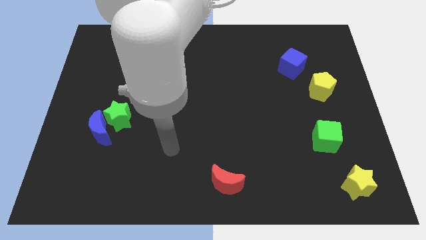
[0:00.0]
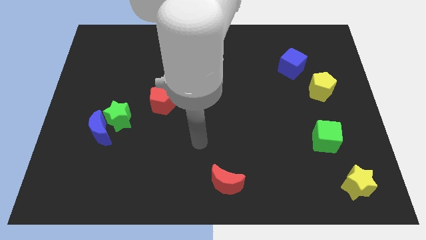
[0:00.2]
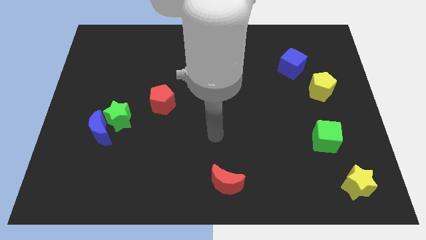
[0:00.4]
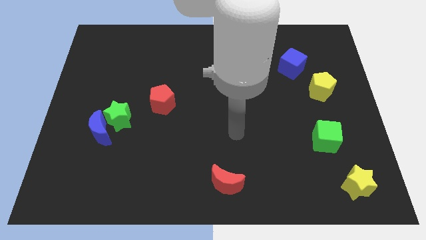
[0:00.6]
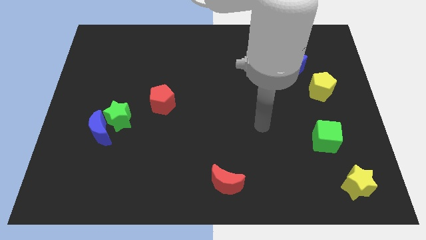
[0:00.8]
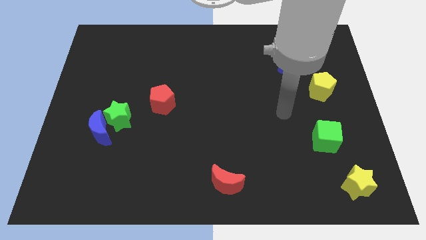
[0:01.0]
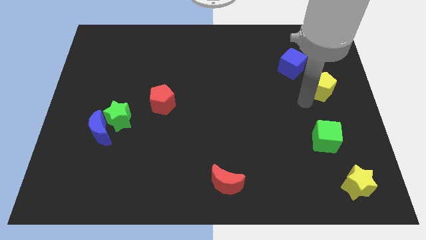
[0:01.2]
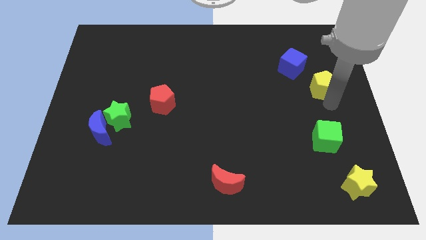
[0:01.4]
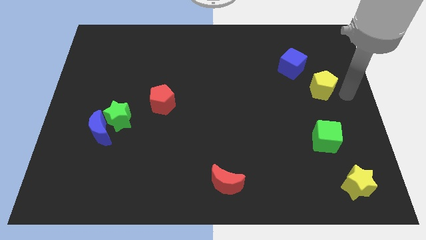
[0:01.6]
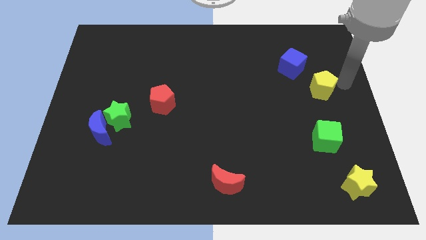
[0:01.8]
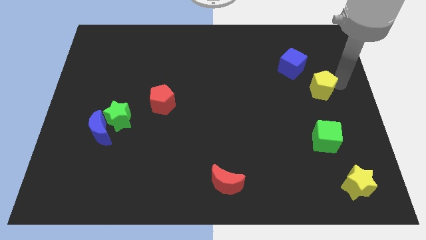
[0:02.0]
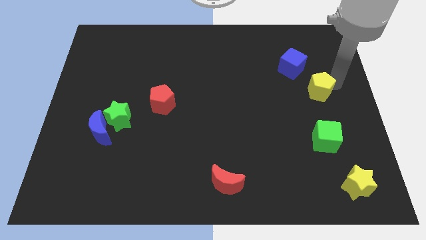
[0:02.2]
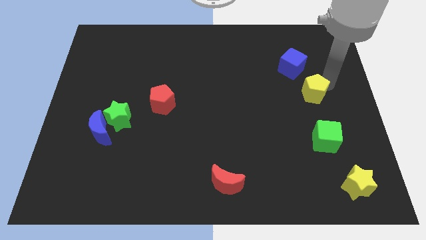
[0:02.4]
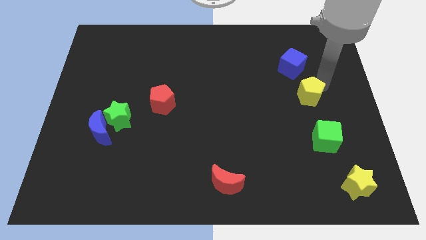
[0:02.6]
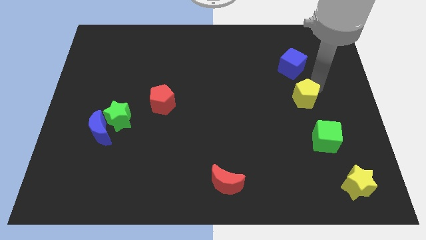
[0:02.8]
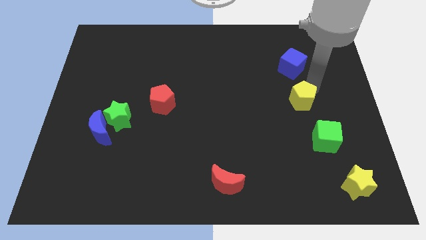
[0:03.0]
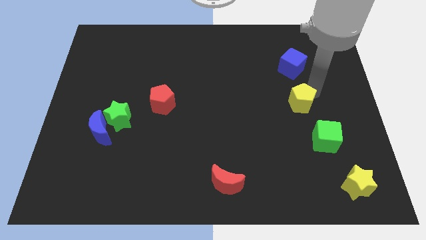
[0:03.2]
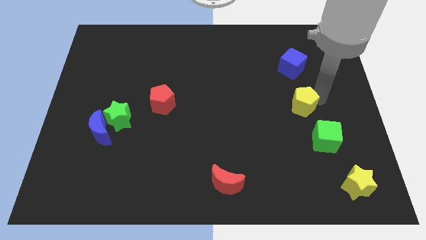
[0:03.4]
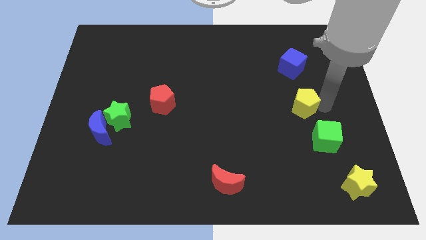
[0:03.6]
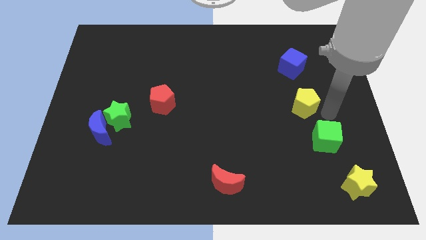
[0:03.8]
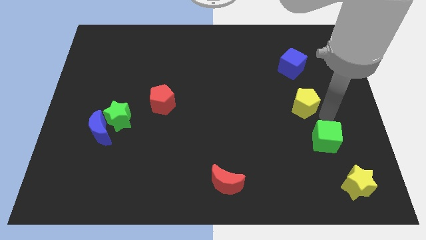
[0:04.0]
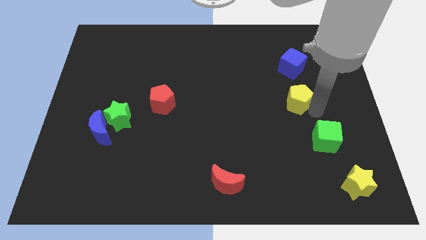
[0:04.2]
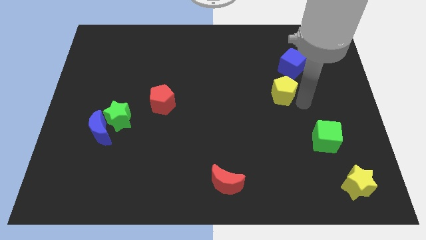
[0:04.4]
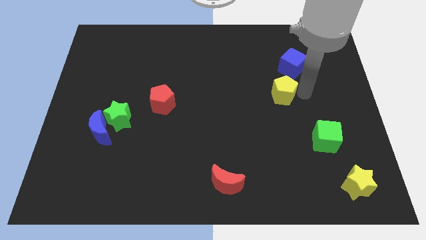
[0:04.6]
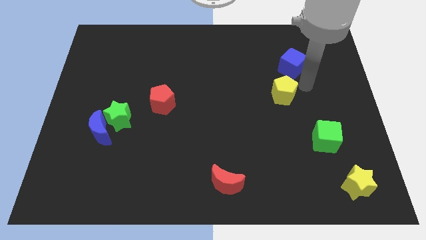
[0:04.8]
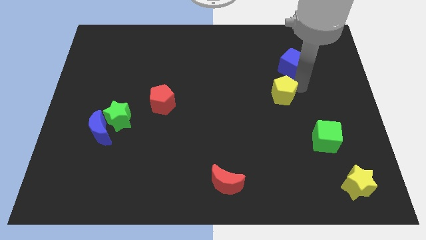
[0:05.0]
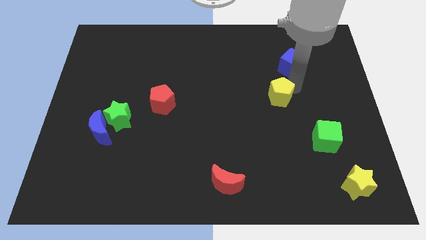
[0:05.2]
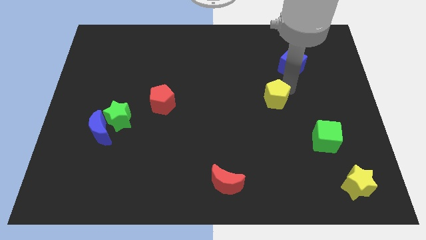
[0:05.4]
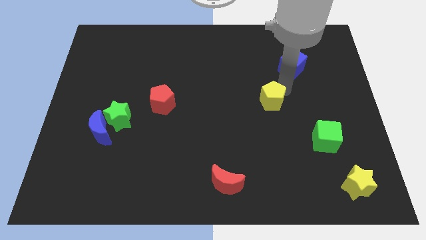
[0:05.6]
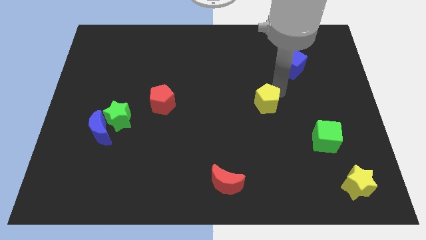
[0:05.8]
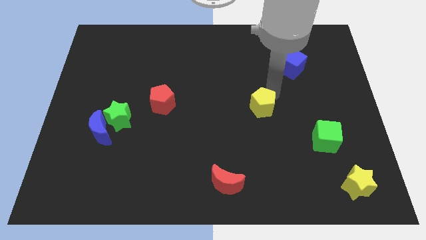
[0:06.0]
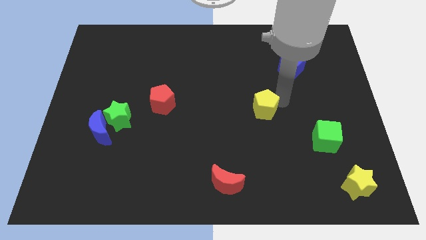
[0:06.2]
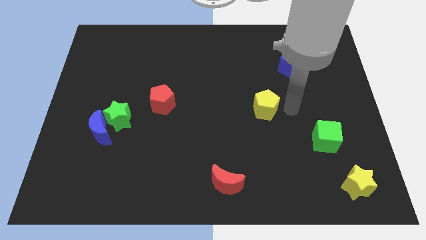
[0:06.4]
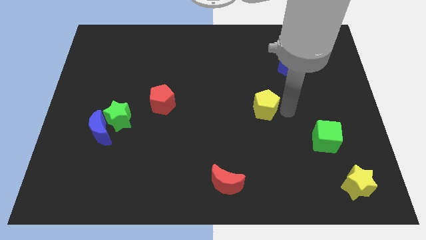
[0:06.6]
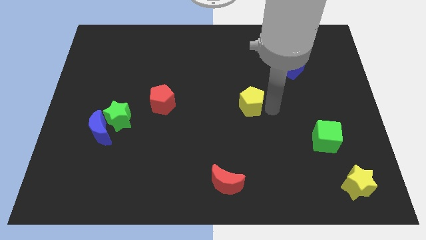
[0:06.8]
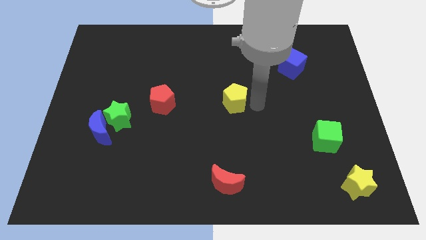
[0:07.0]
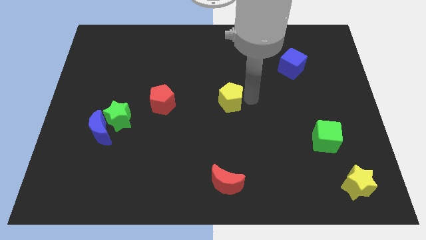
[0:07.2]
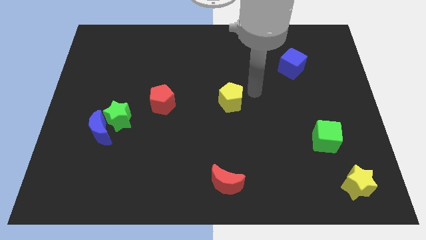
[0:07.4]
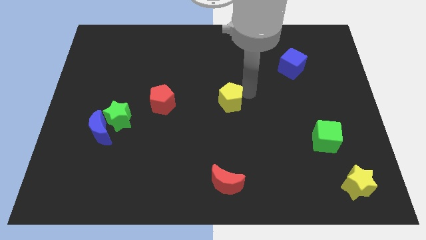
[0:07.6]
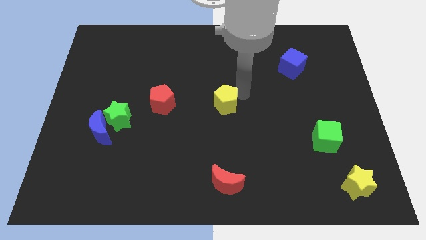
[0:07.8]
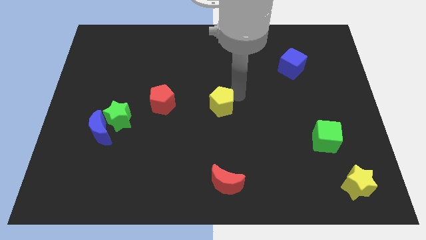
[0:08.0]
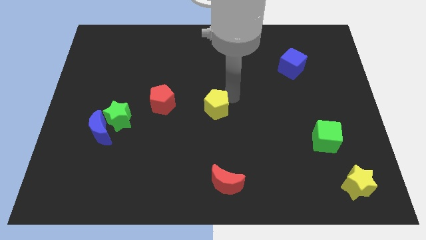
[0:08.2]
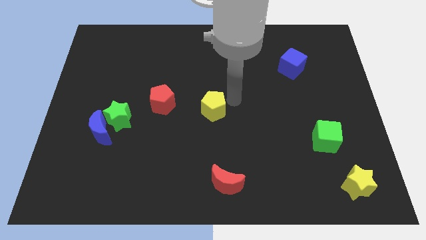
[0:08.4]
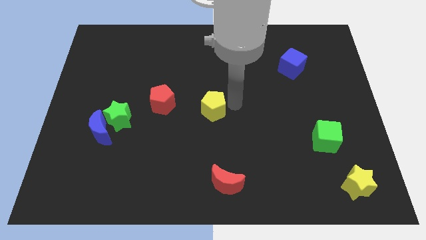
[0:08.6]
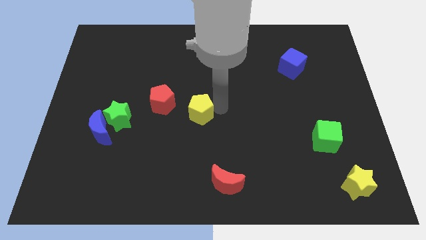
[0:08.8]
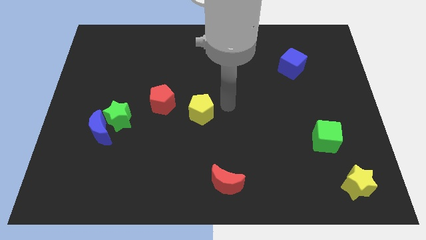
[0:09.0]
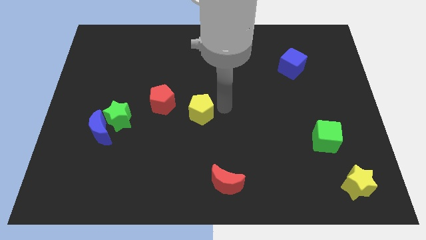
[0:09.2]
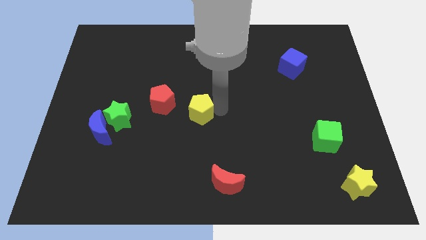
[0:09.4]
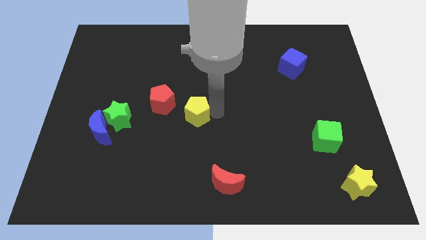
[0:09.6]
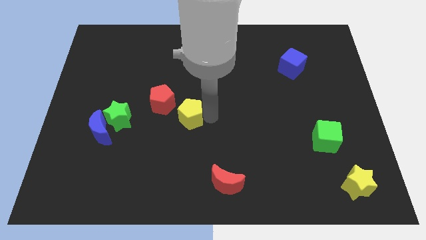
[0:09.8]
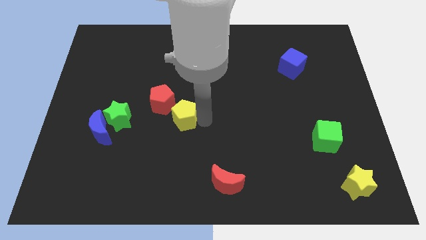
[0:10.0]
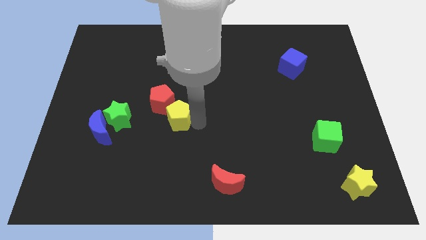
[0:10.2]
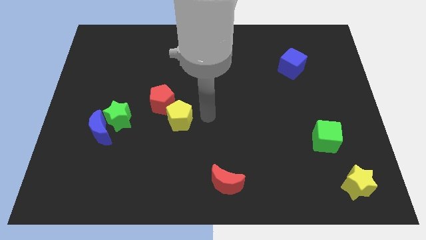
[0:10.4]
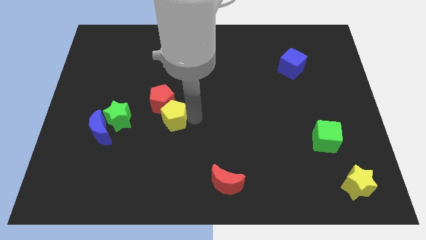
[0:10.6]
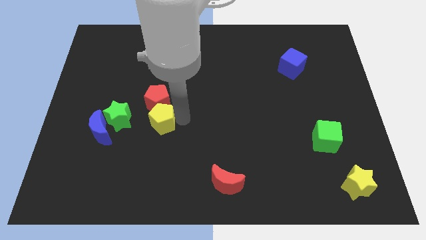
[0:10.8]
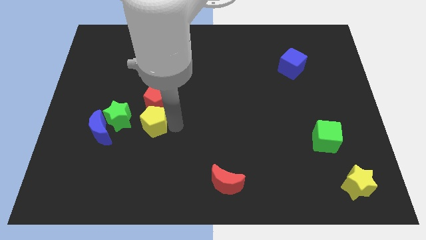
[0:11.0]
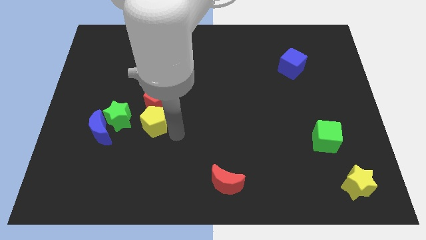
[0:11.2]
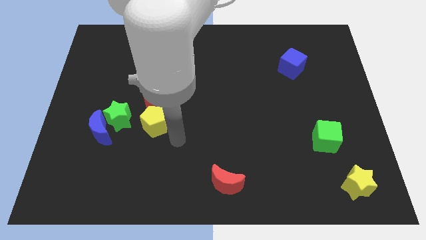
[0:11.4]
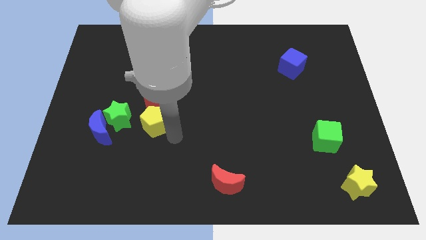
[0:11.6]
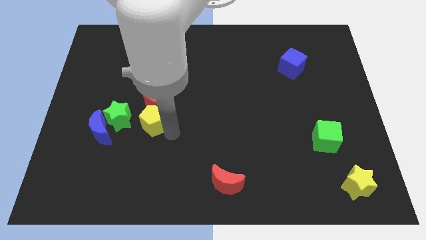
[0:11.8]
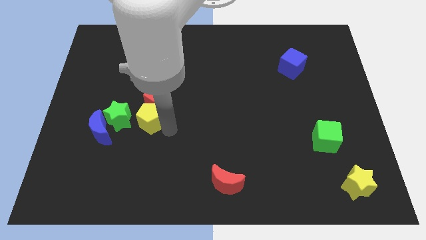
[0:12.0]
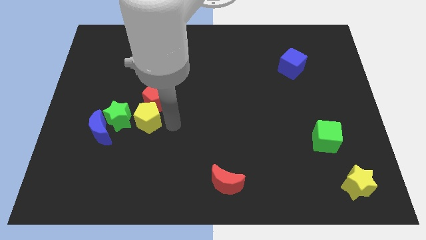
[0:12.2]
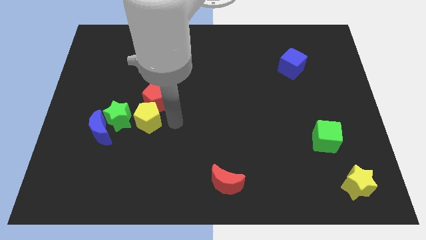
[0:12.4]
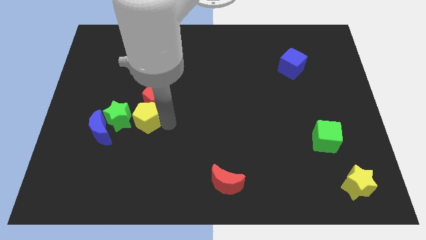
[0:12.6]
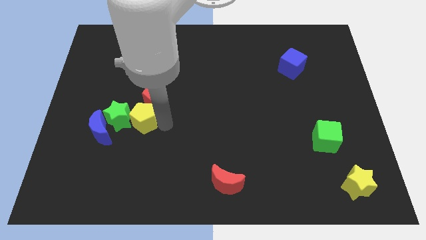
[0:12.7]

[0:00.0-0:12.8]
push the yellow pentagon towards the green star
